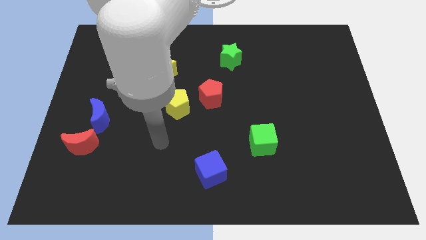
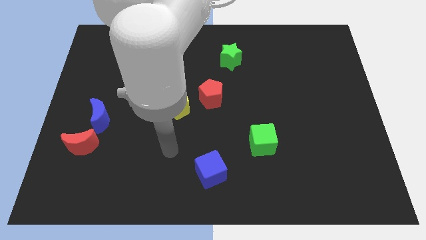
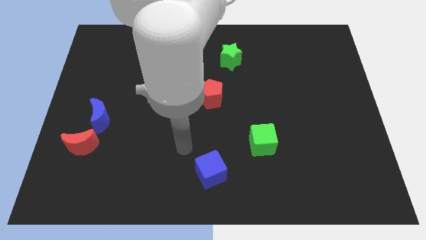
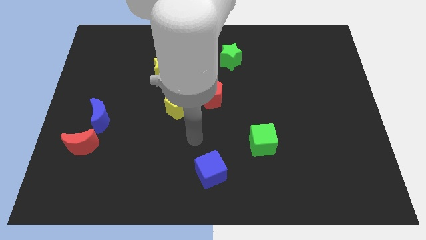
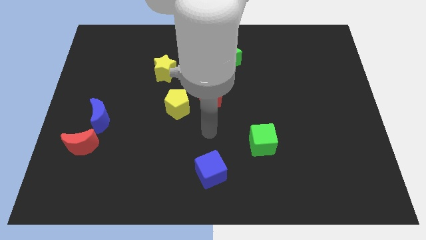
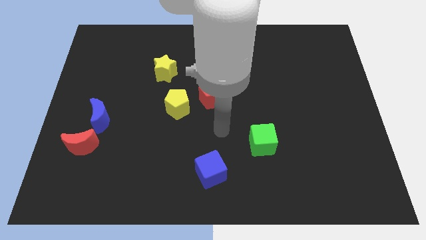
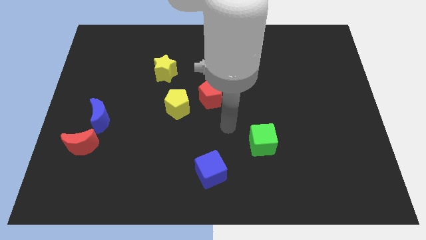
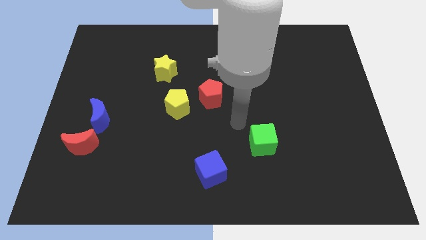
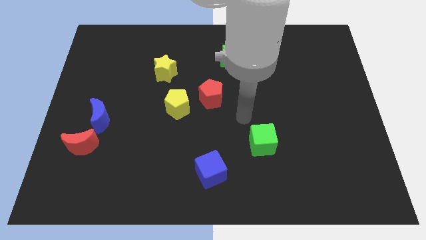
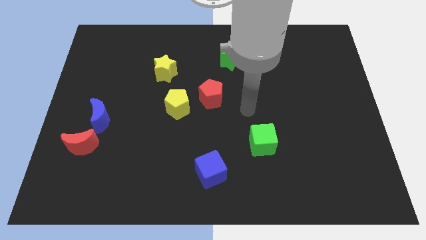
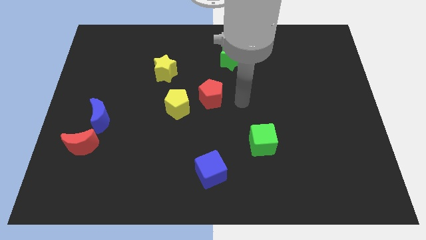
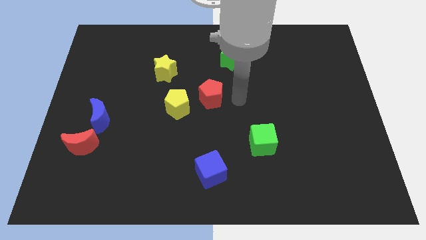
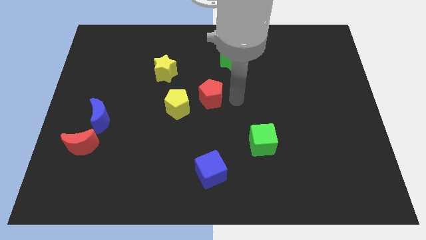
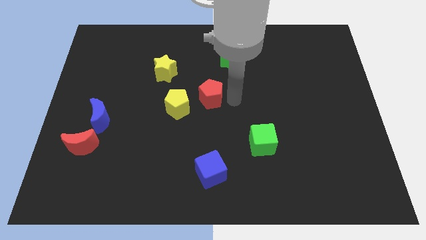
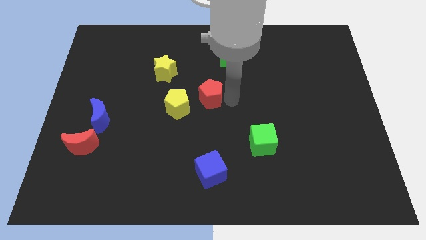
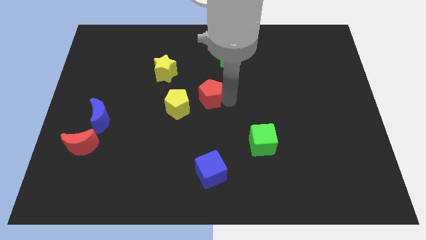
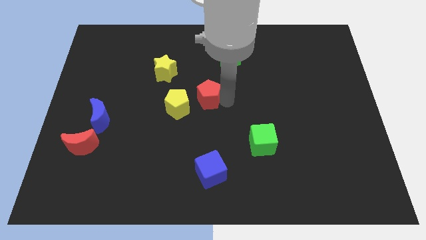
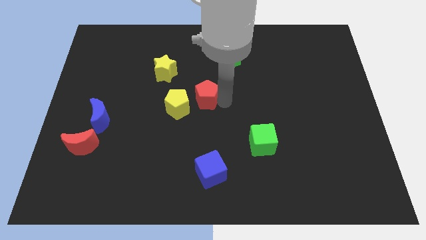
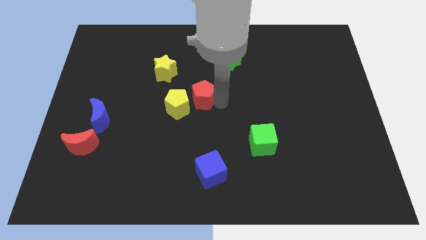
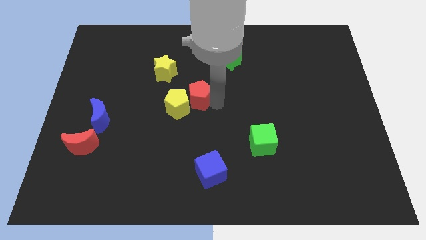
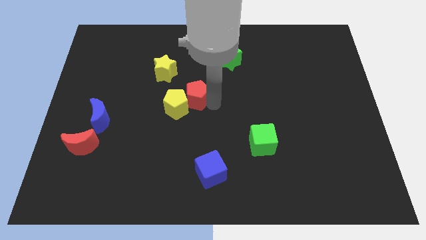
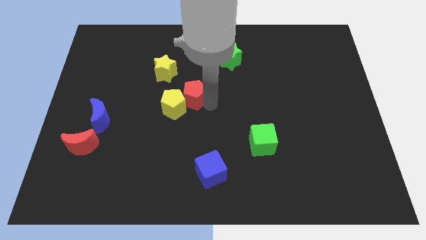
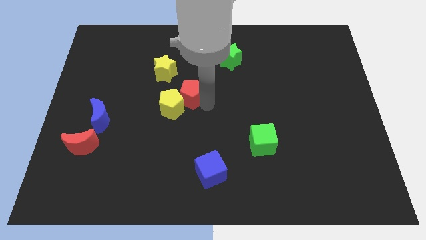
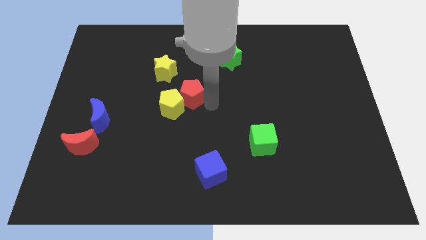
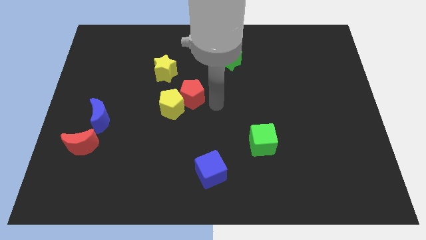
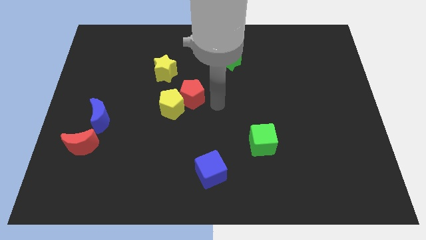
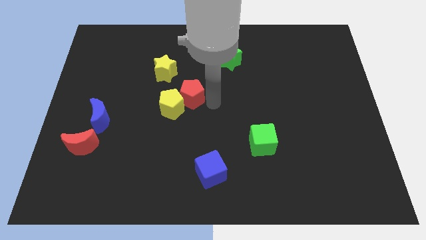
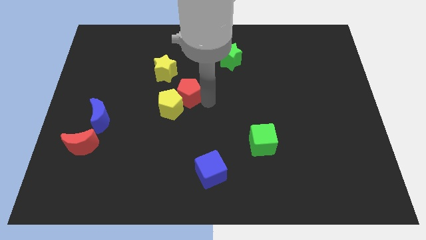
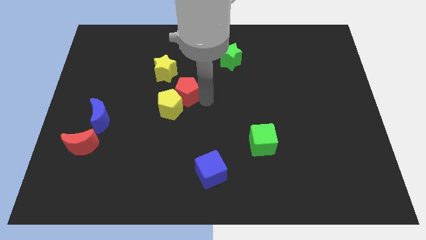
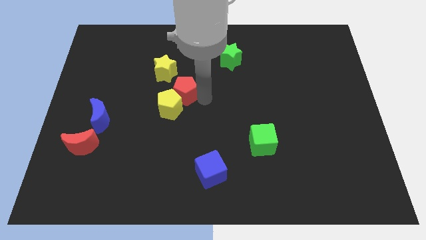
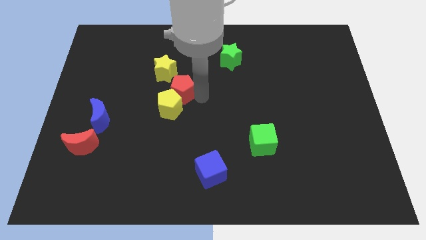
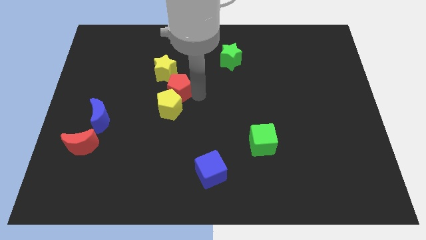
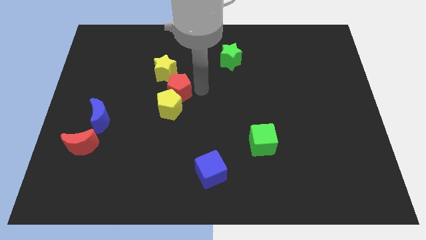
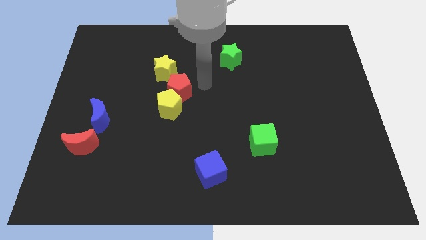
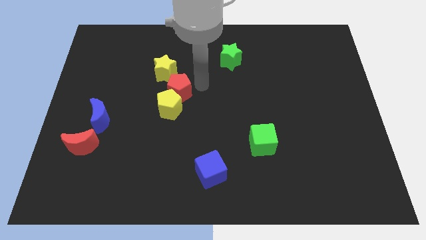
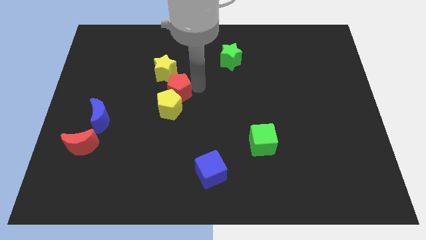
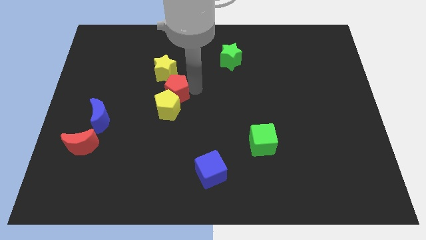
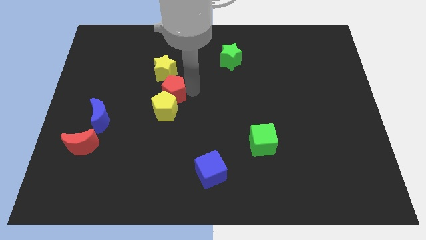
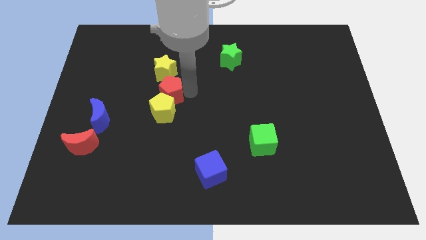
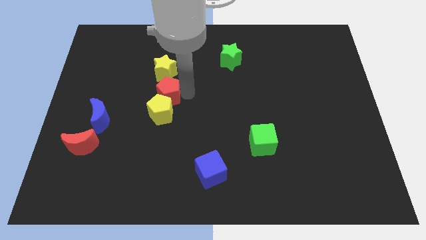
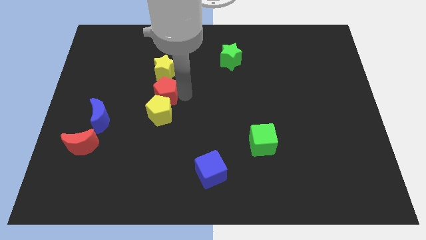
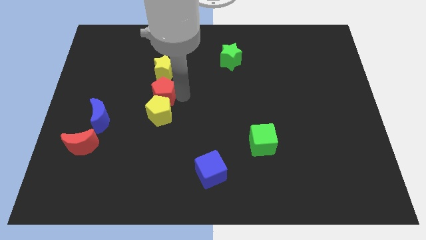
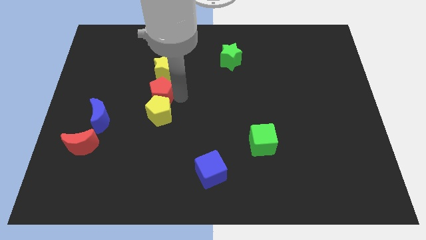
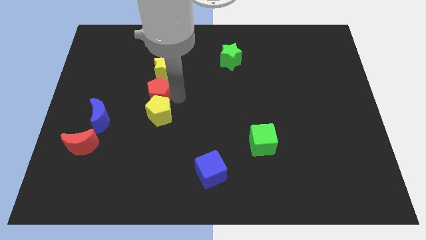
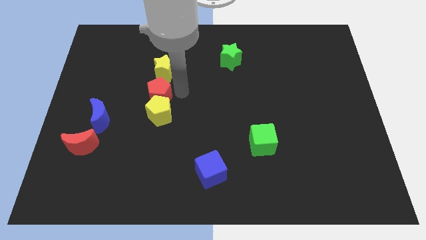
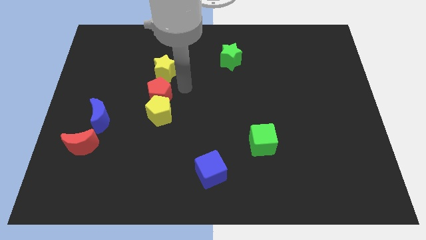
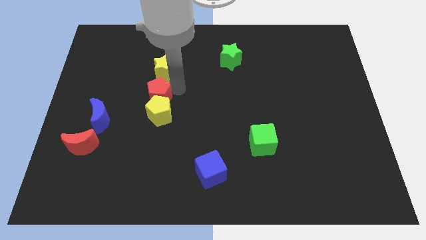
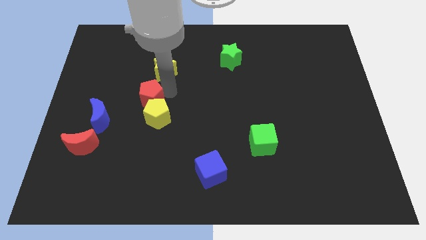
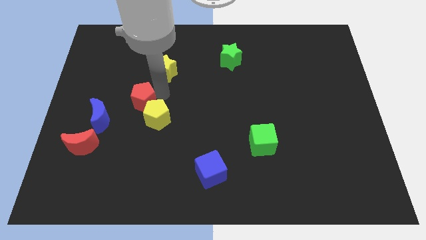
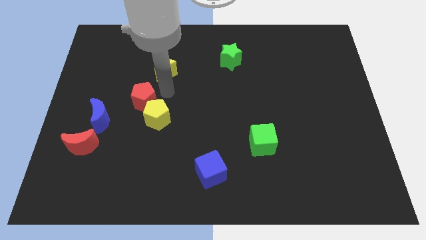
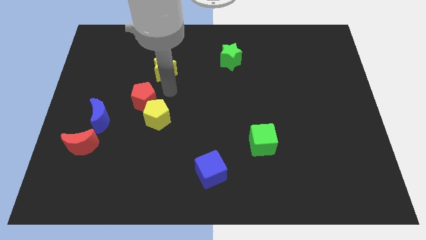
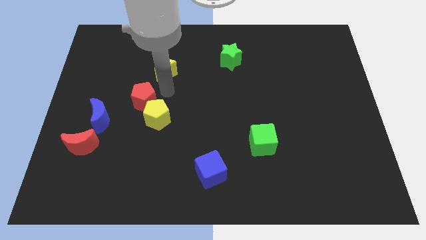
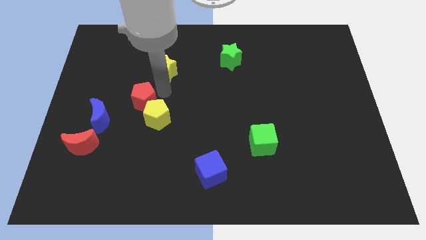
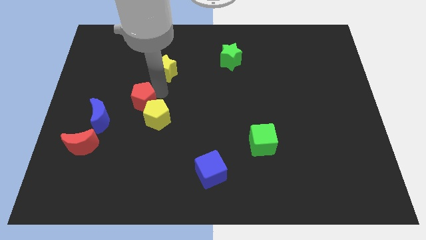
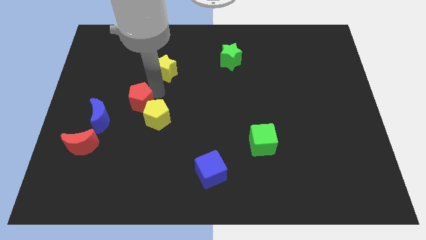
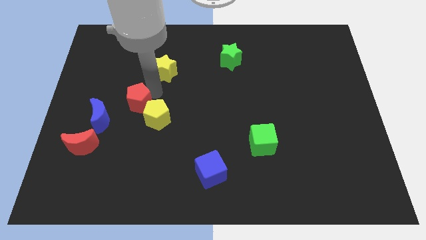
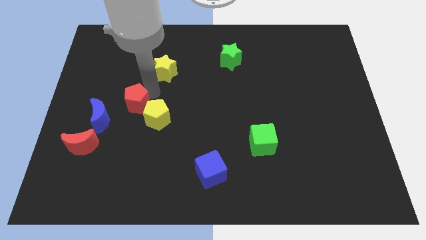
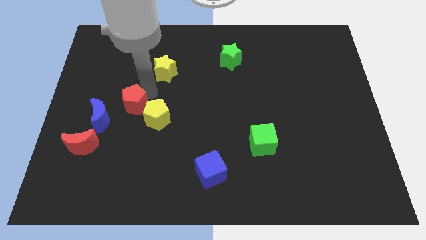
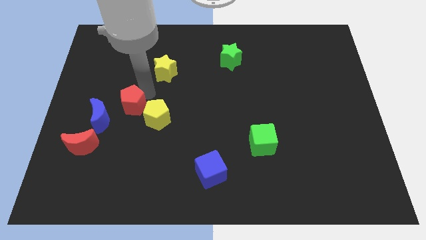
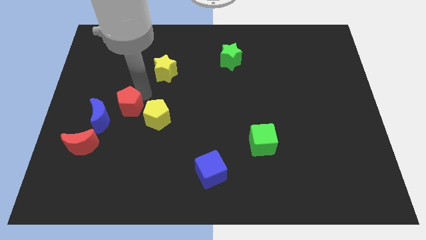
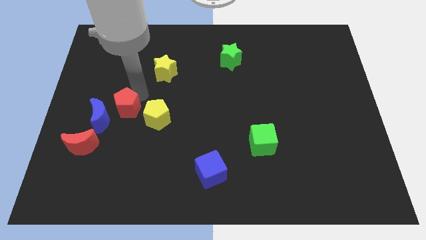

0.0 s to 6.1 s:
put the red pentagon close to the blue moon

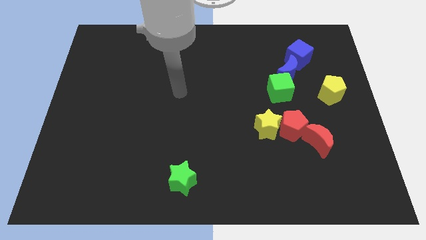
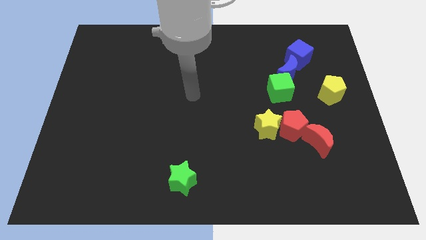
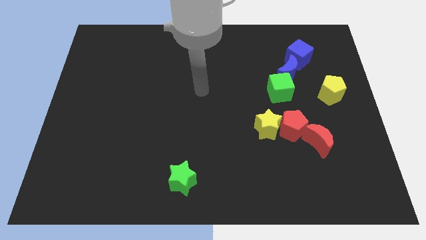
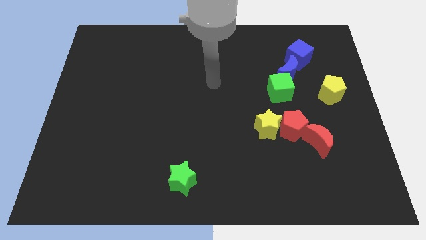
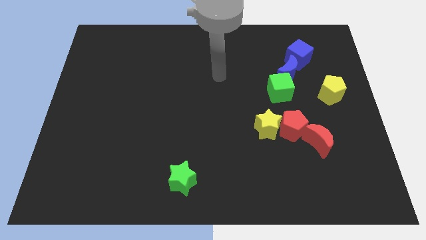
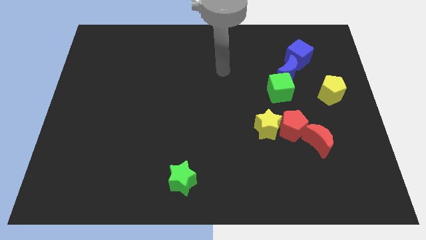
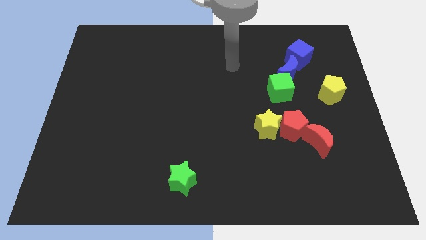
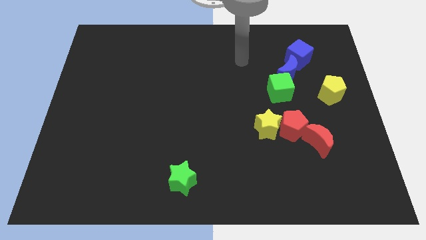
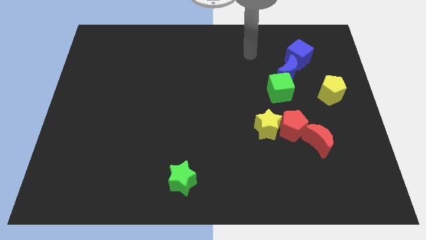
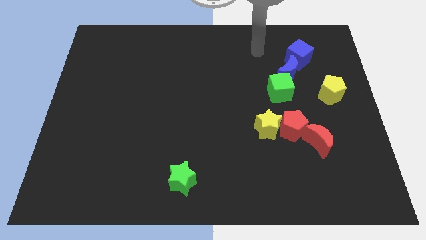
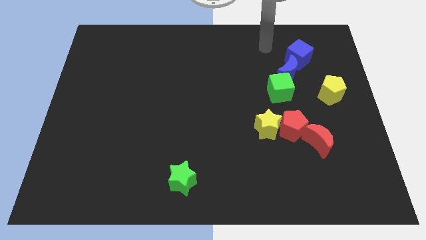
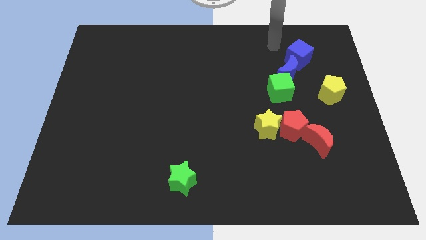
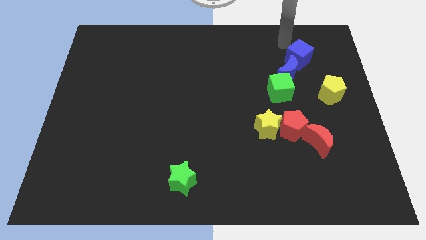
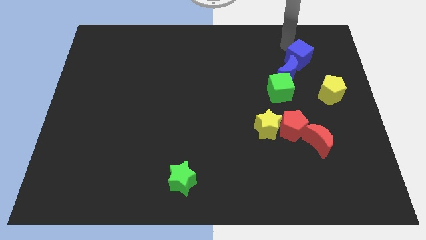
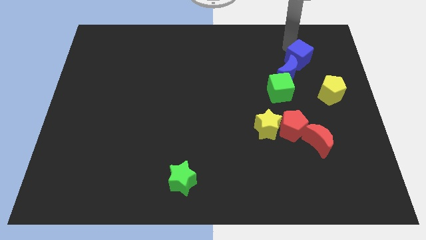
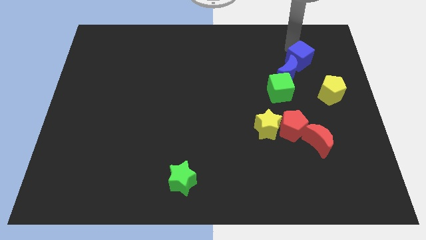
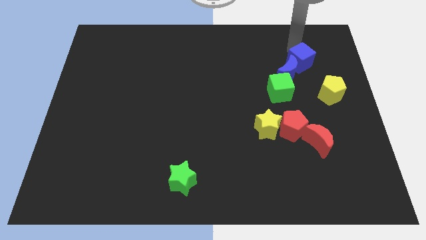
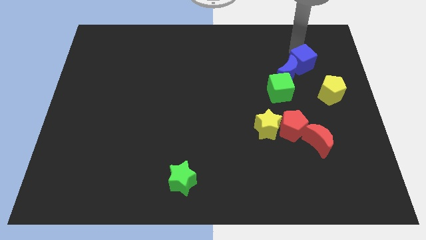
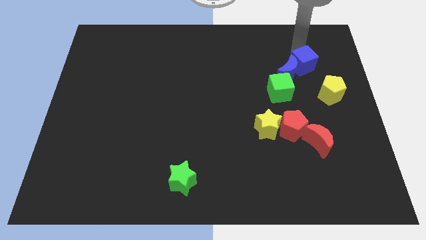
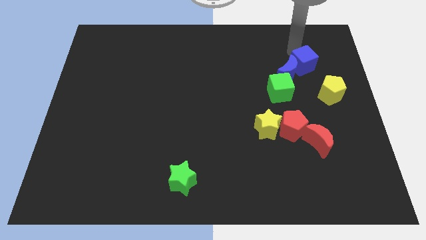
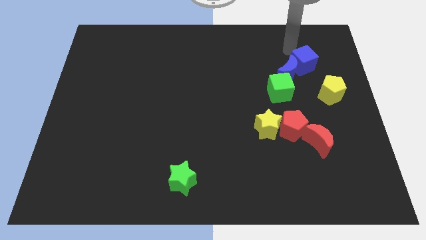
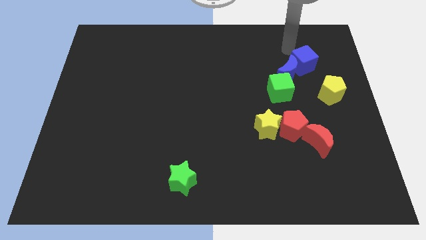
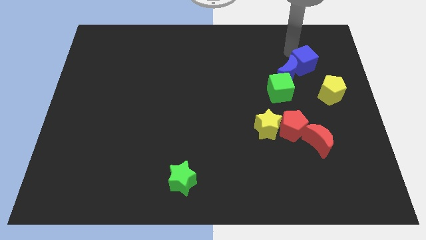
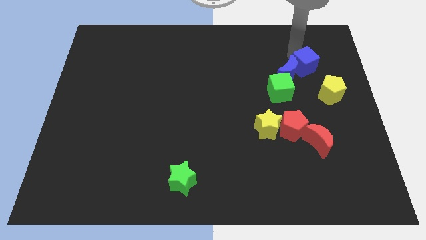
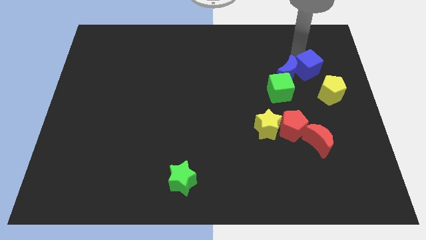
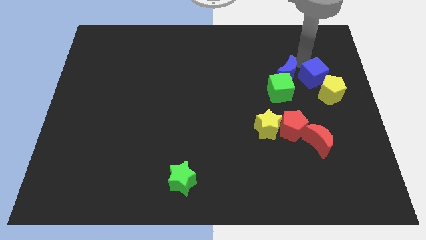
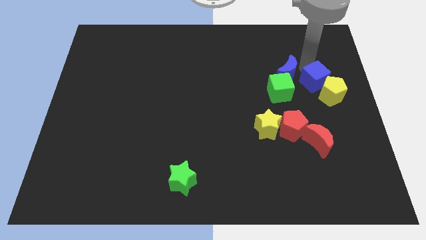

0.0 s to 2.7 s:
push the blue cube close to the yellow pentagon
